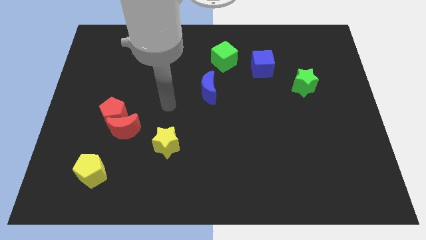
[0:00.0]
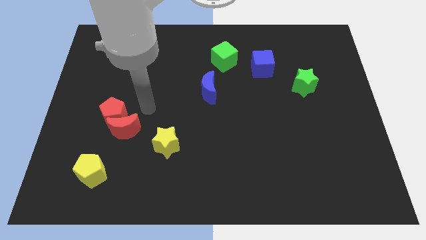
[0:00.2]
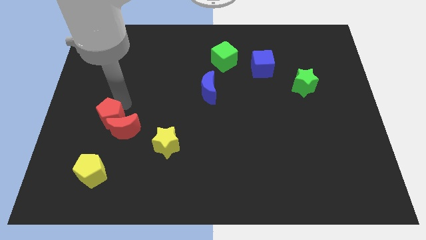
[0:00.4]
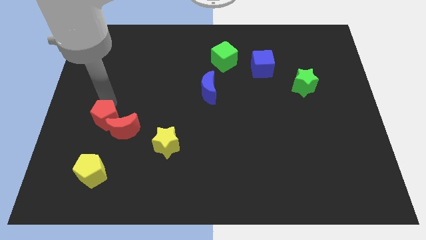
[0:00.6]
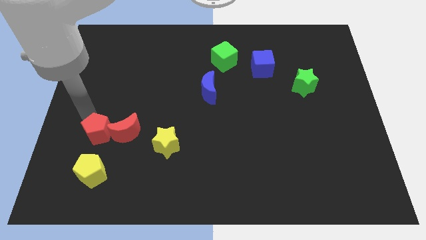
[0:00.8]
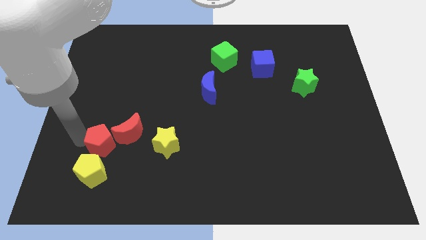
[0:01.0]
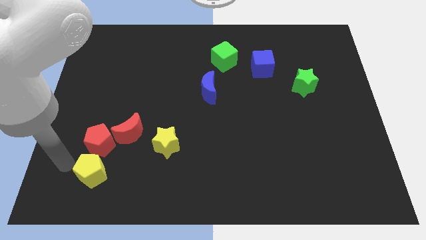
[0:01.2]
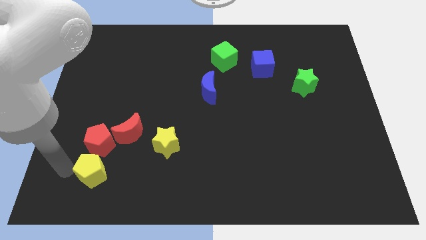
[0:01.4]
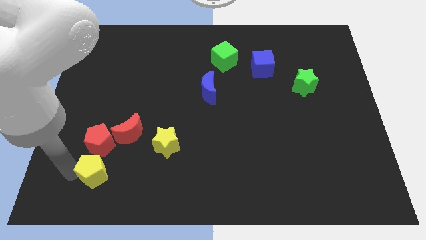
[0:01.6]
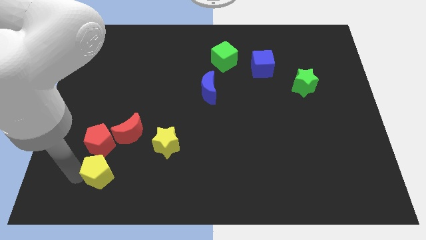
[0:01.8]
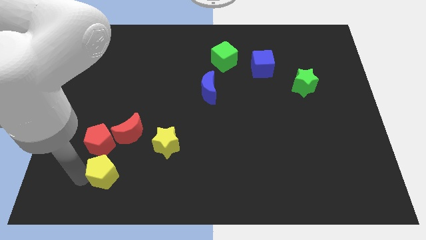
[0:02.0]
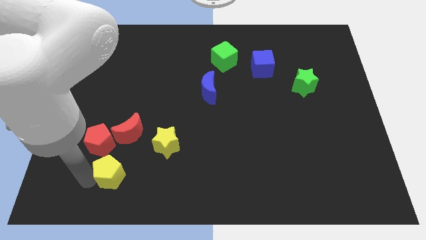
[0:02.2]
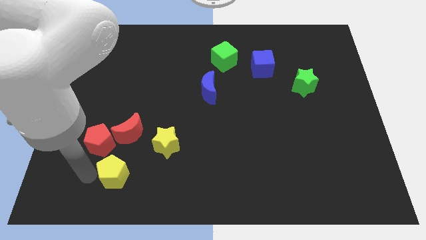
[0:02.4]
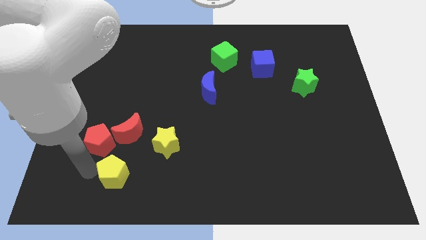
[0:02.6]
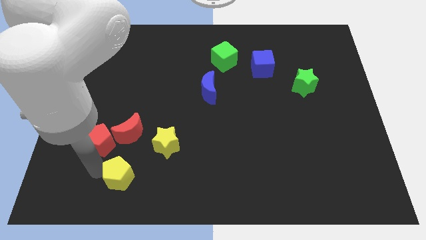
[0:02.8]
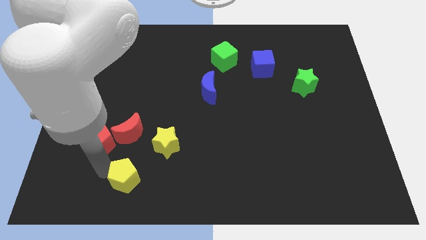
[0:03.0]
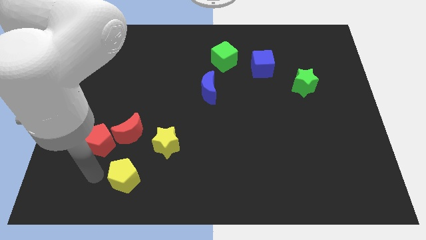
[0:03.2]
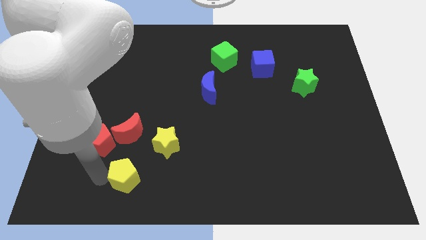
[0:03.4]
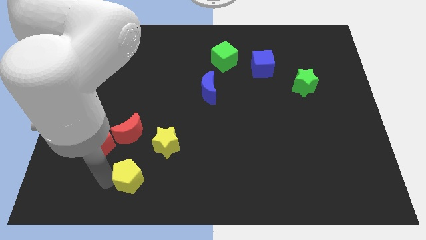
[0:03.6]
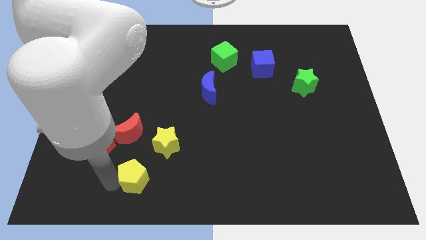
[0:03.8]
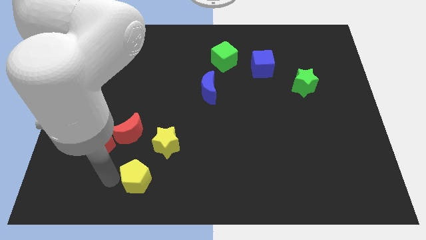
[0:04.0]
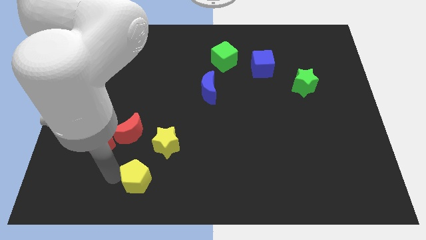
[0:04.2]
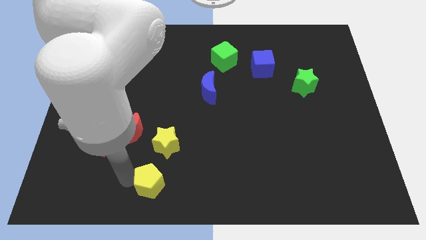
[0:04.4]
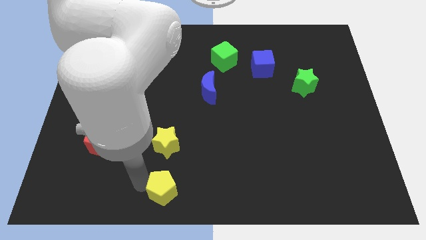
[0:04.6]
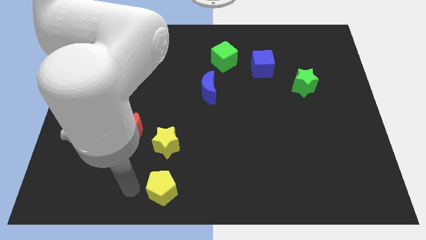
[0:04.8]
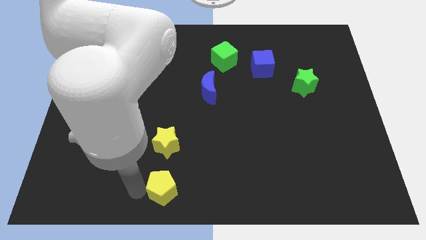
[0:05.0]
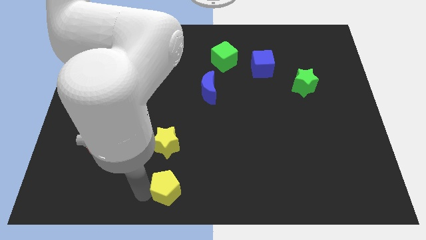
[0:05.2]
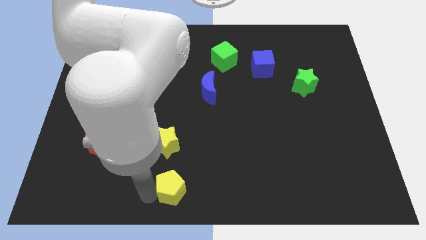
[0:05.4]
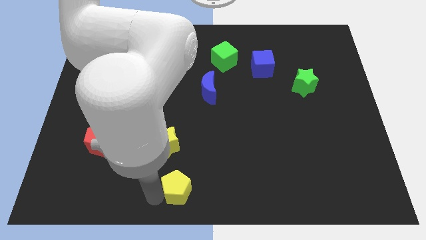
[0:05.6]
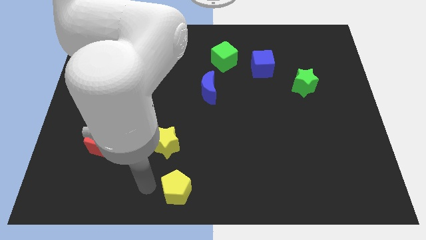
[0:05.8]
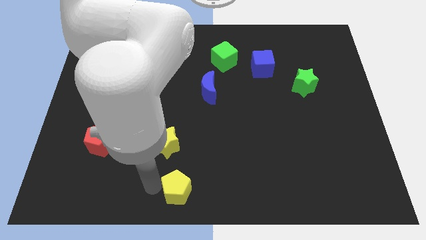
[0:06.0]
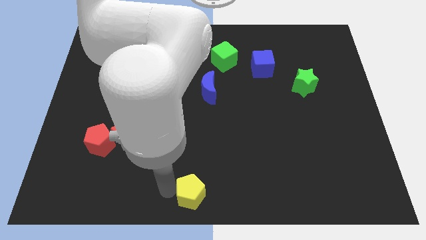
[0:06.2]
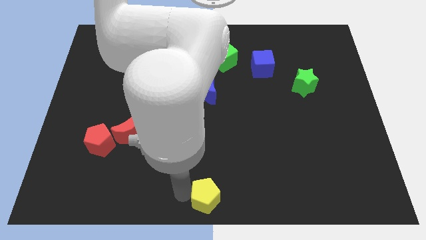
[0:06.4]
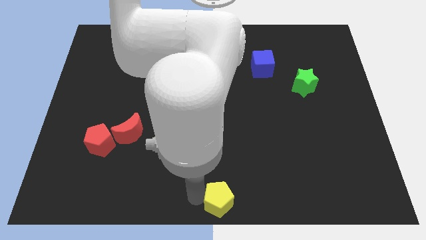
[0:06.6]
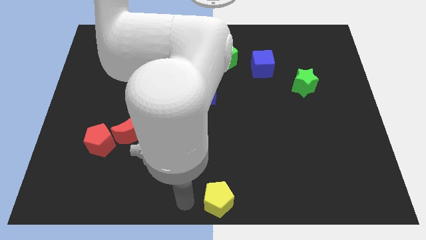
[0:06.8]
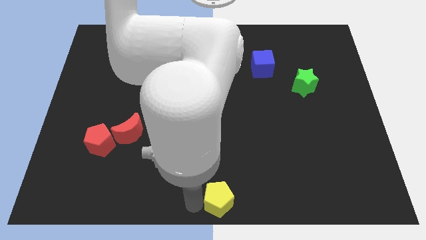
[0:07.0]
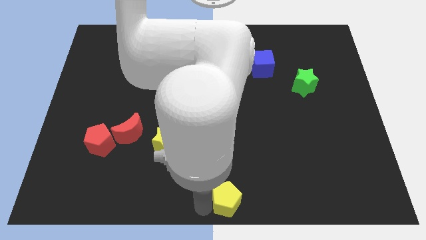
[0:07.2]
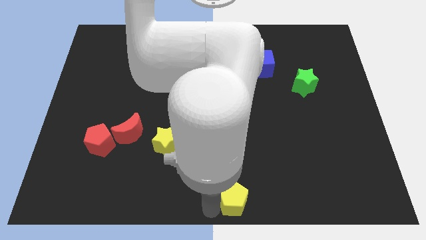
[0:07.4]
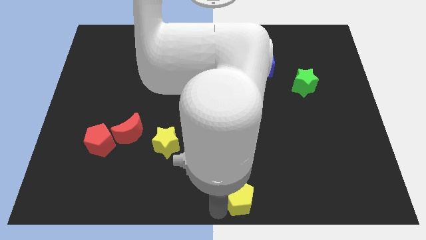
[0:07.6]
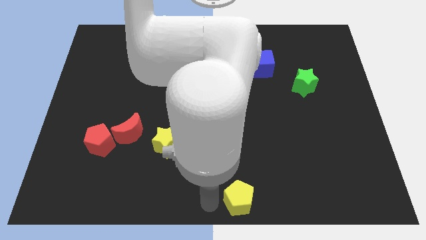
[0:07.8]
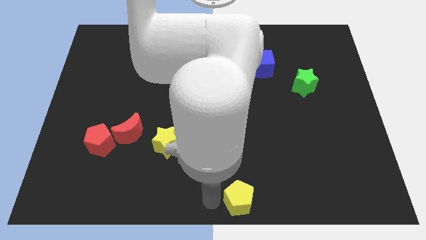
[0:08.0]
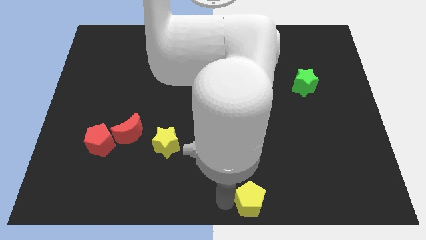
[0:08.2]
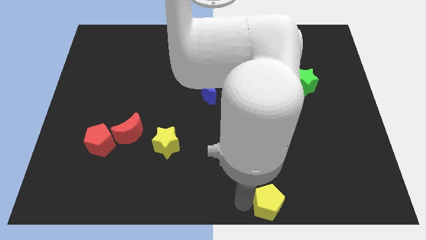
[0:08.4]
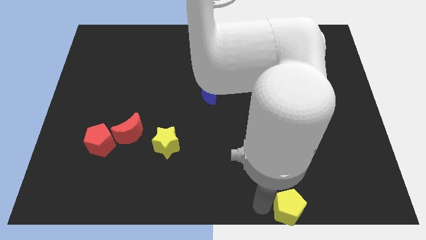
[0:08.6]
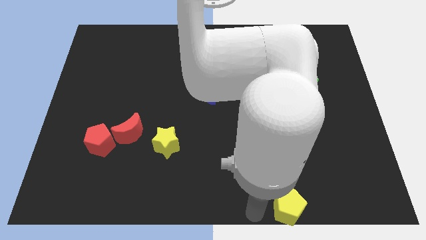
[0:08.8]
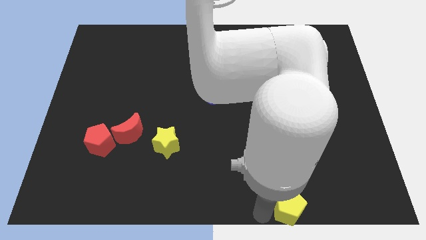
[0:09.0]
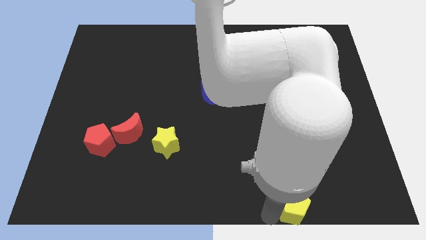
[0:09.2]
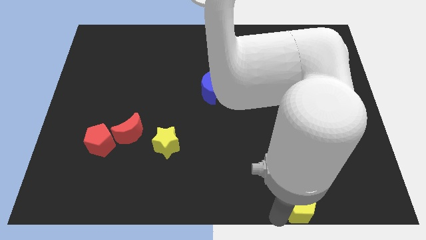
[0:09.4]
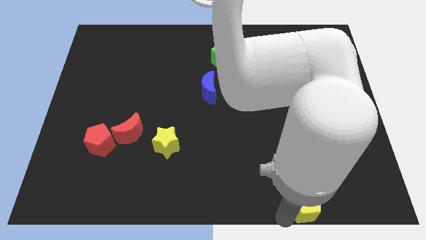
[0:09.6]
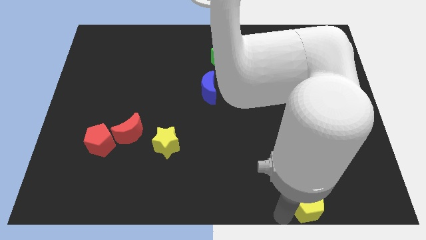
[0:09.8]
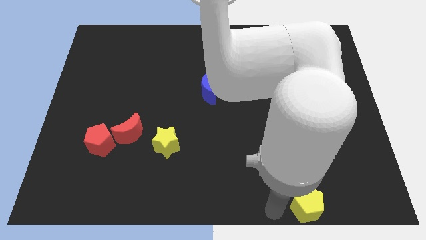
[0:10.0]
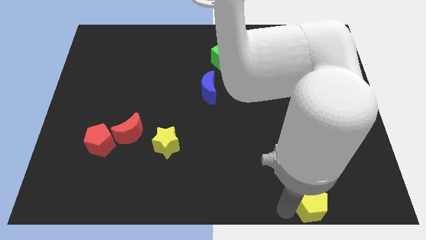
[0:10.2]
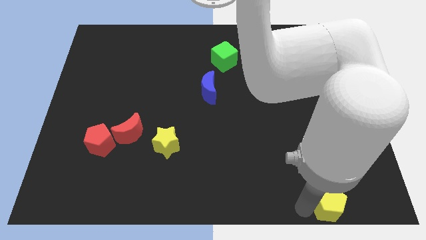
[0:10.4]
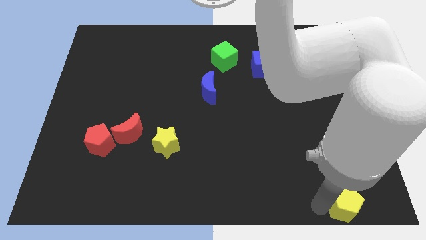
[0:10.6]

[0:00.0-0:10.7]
put the yellow pentagon to the bottom right corner

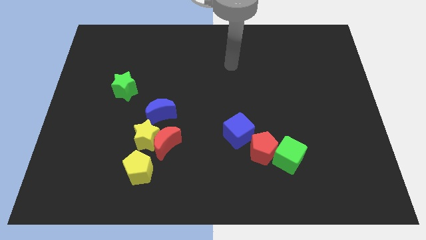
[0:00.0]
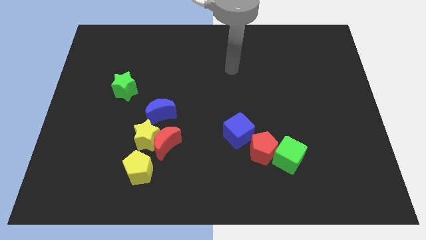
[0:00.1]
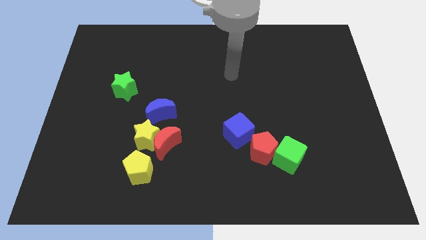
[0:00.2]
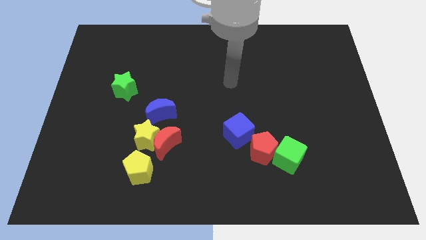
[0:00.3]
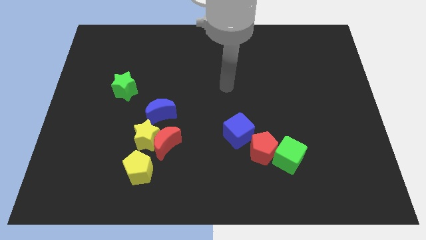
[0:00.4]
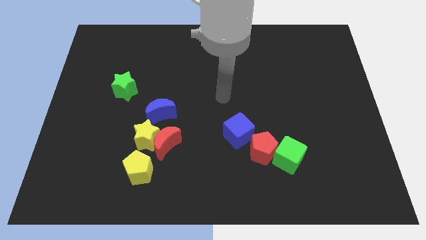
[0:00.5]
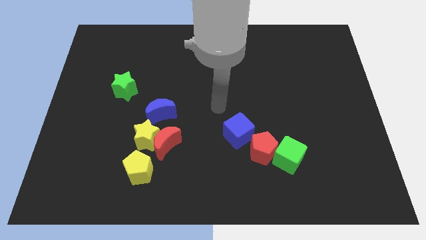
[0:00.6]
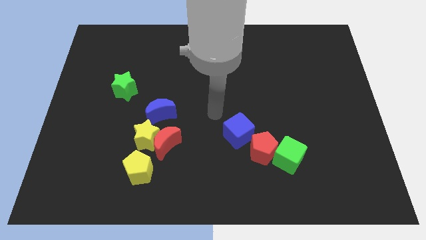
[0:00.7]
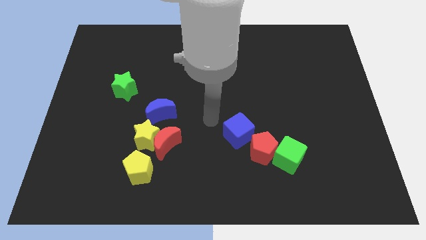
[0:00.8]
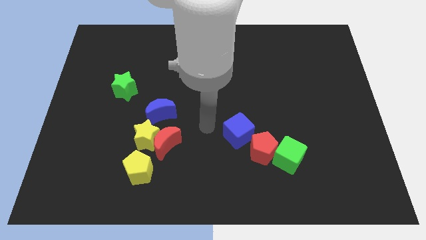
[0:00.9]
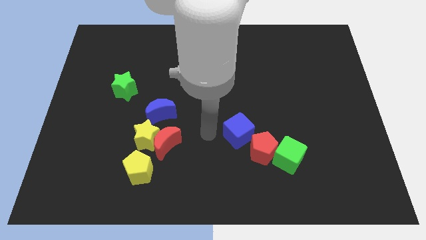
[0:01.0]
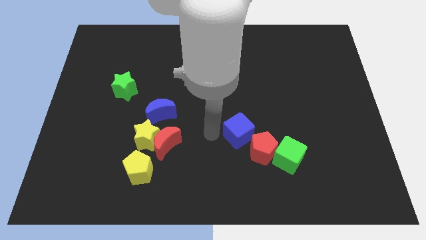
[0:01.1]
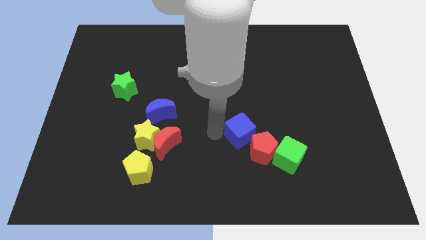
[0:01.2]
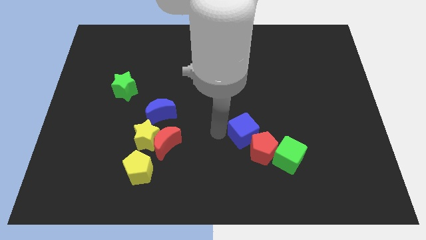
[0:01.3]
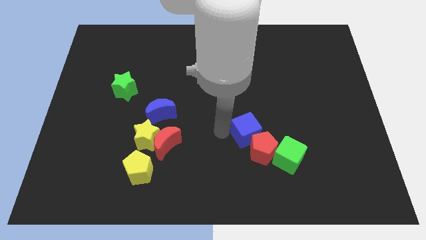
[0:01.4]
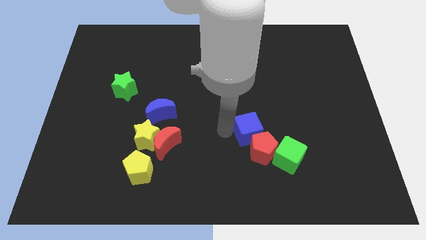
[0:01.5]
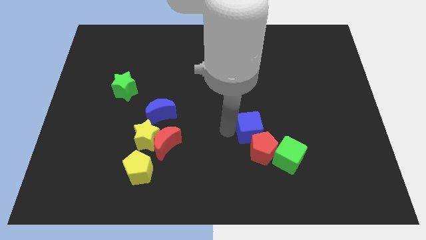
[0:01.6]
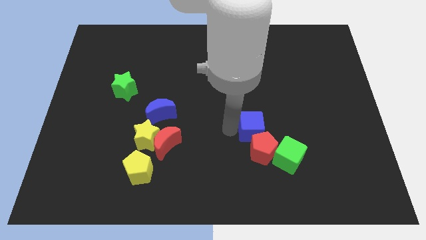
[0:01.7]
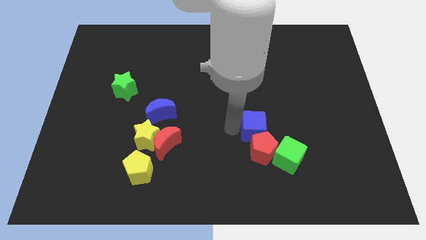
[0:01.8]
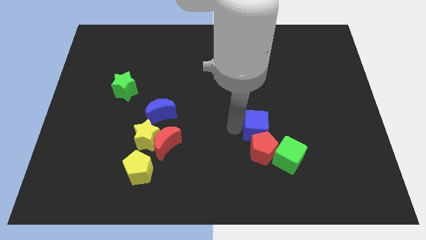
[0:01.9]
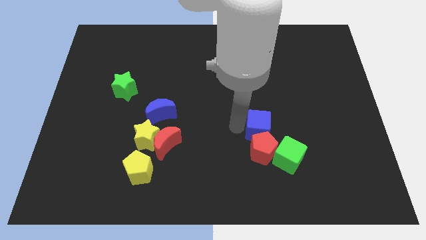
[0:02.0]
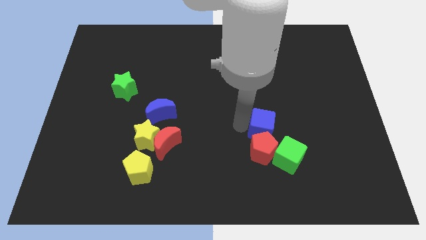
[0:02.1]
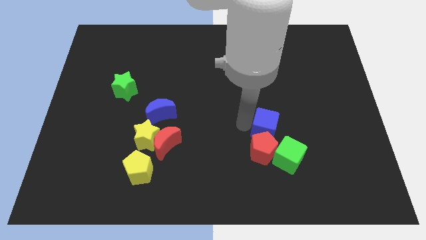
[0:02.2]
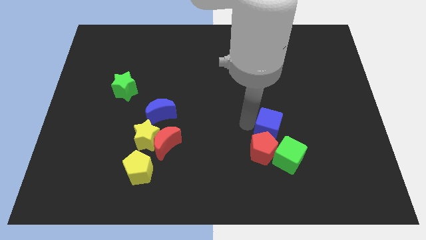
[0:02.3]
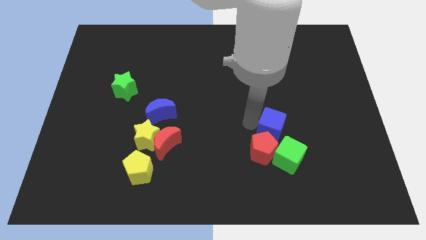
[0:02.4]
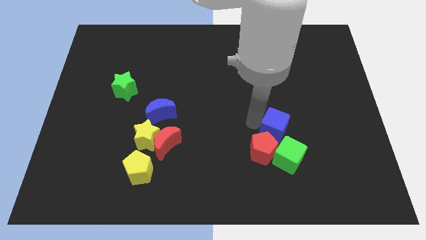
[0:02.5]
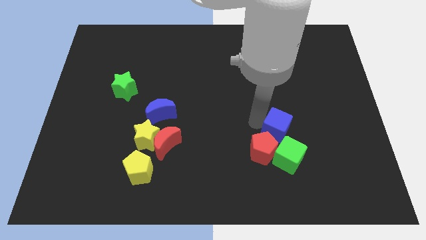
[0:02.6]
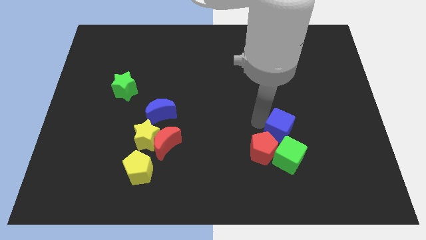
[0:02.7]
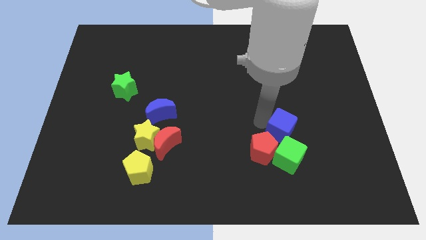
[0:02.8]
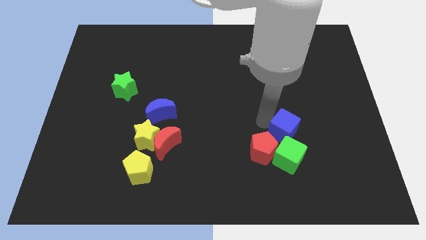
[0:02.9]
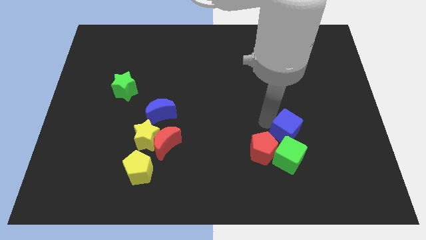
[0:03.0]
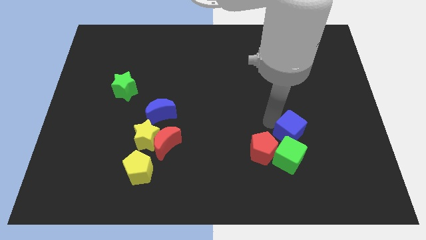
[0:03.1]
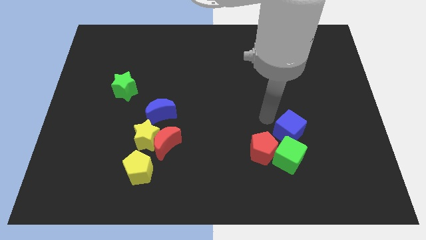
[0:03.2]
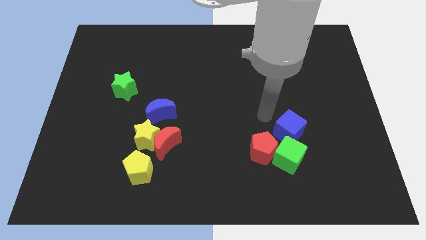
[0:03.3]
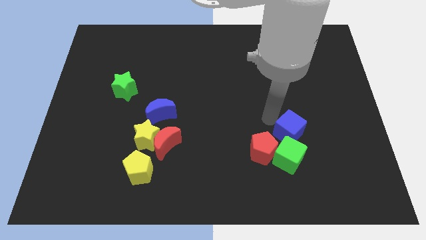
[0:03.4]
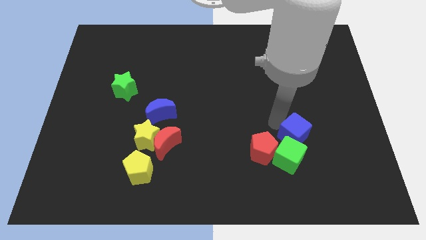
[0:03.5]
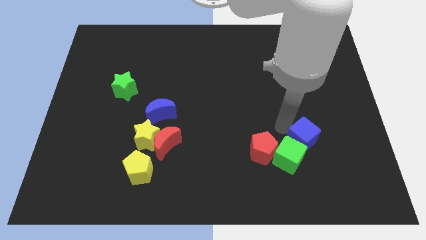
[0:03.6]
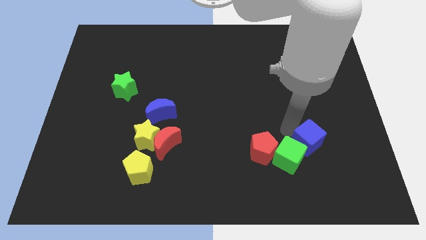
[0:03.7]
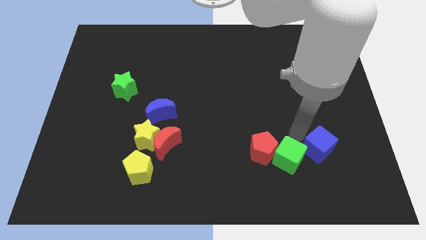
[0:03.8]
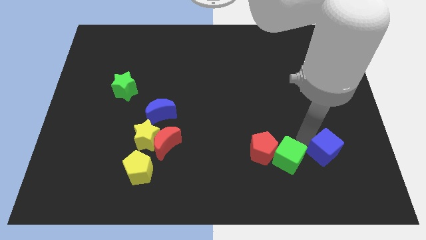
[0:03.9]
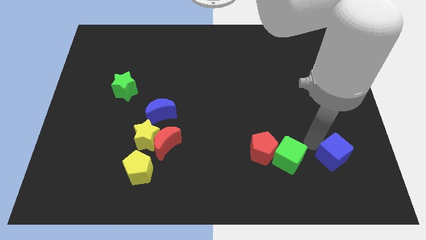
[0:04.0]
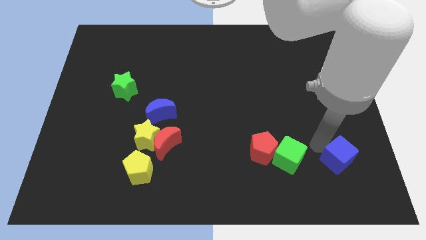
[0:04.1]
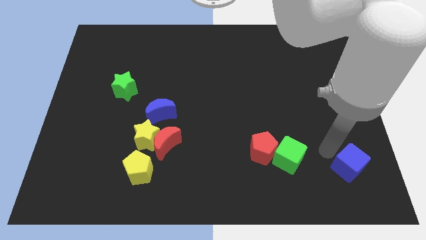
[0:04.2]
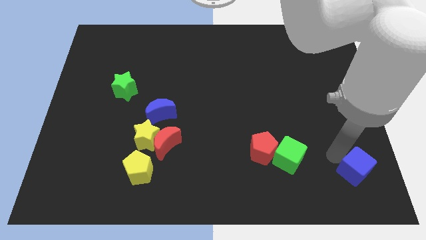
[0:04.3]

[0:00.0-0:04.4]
slide the blue cube to the bottom right corner
